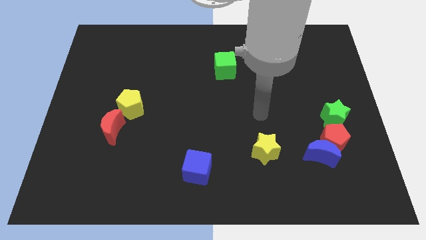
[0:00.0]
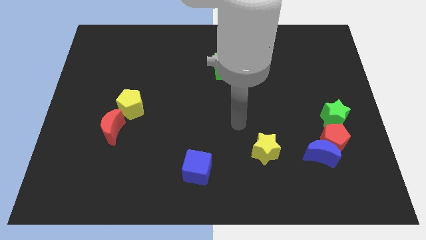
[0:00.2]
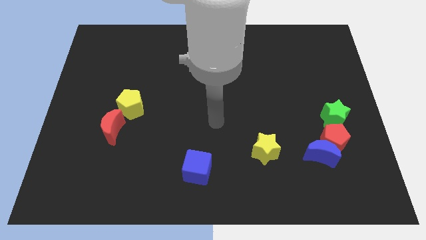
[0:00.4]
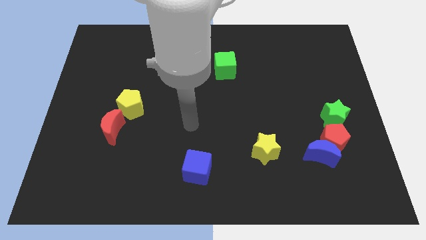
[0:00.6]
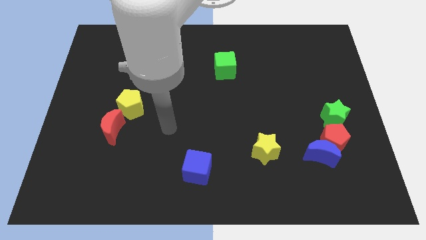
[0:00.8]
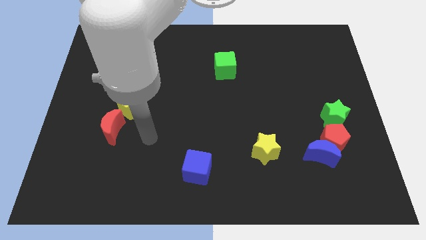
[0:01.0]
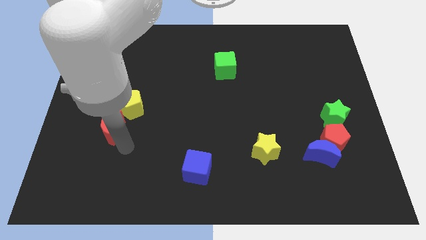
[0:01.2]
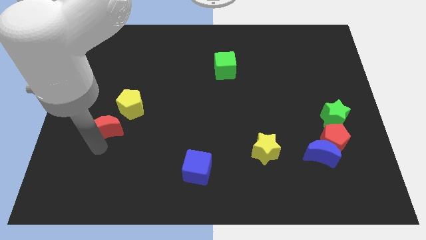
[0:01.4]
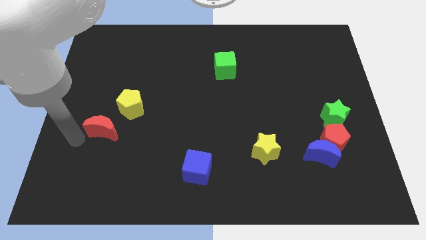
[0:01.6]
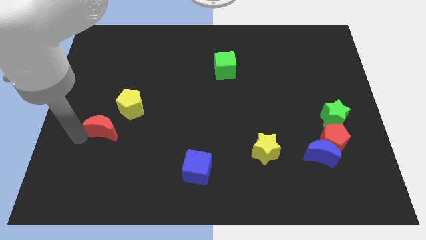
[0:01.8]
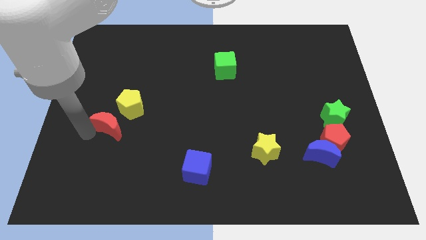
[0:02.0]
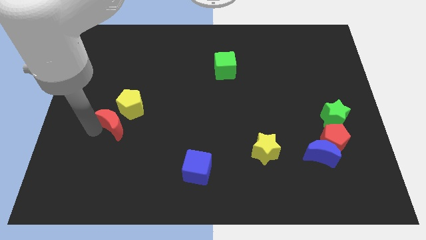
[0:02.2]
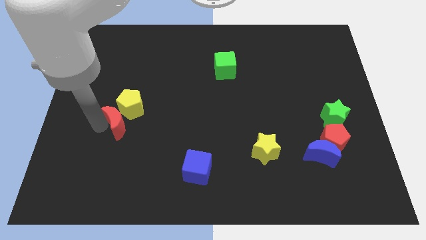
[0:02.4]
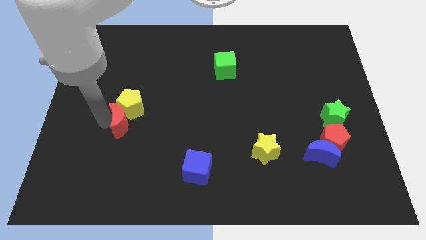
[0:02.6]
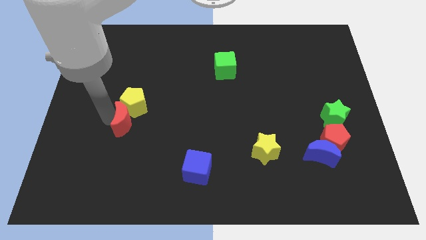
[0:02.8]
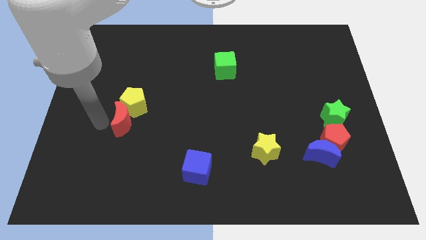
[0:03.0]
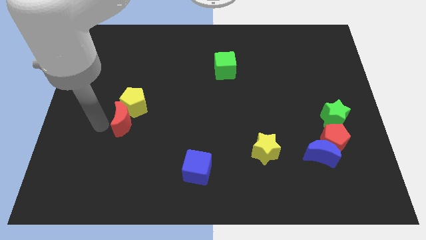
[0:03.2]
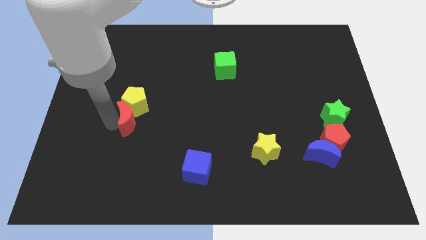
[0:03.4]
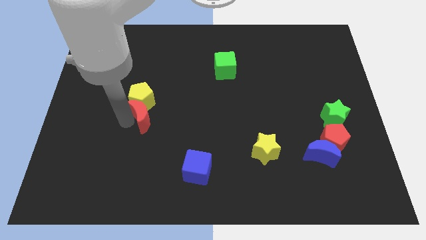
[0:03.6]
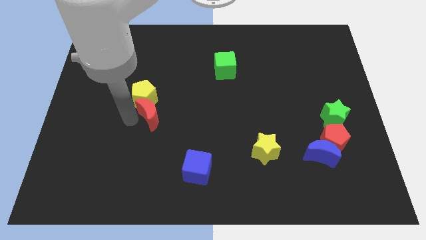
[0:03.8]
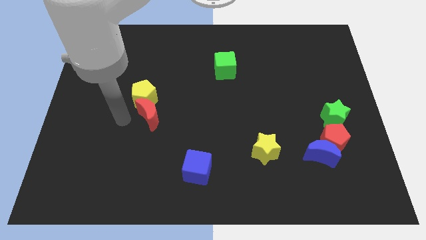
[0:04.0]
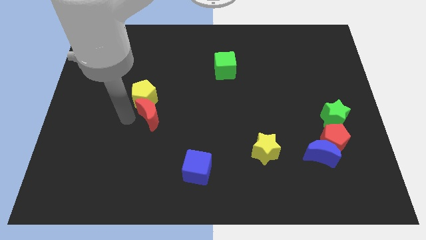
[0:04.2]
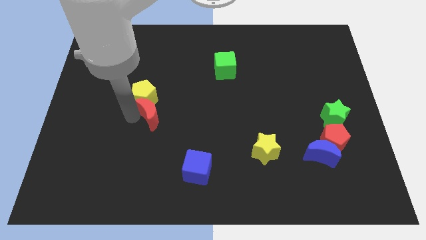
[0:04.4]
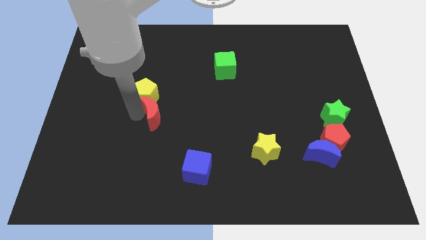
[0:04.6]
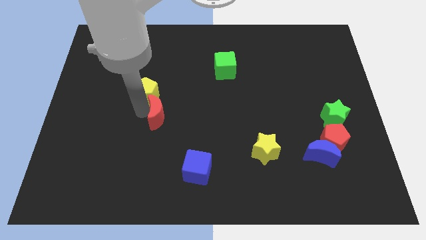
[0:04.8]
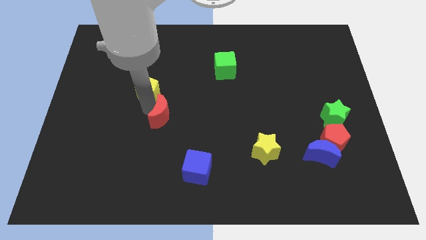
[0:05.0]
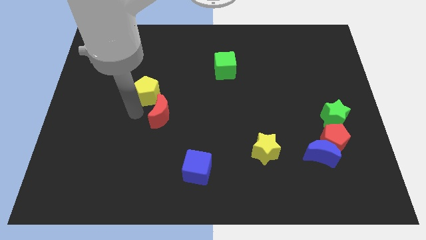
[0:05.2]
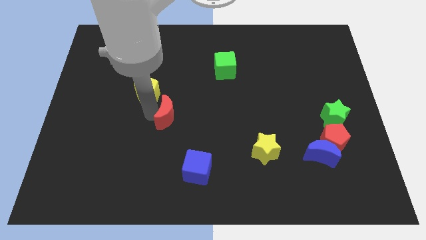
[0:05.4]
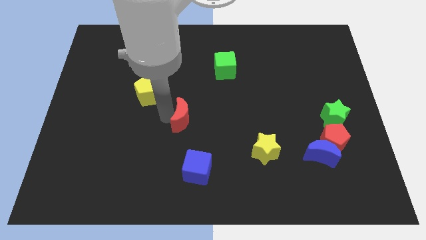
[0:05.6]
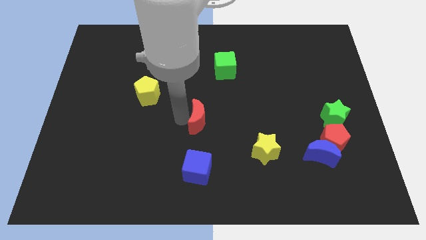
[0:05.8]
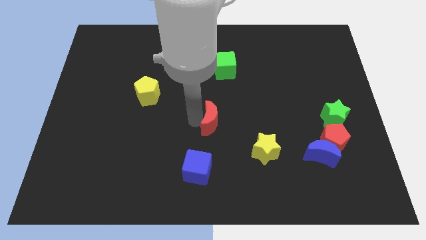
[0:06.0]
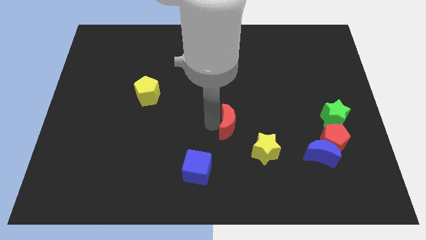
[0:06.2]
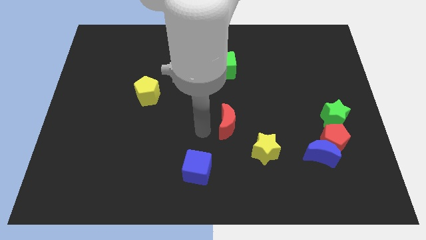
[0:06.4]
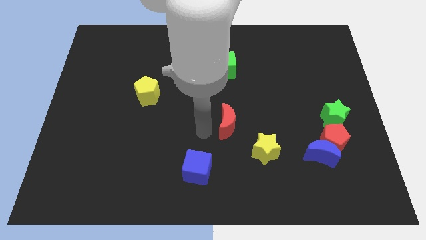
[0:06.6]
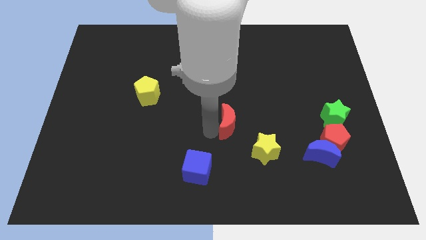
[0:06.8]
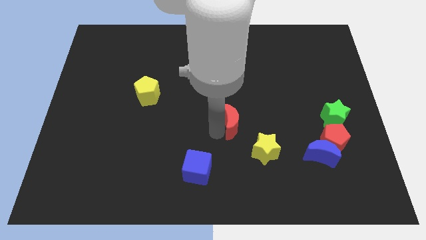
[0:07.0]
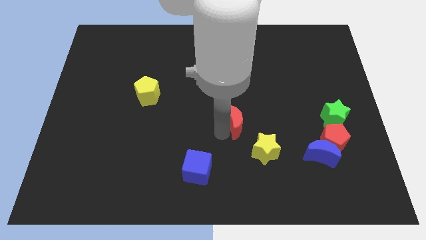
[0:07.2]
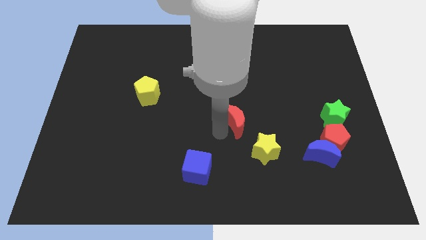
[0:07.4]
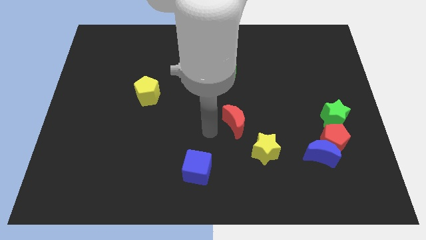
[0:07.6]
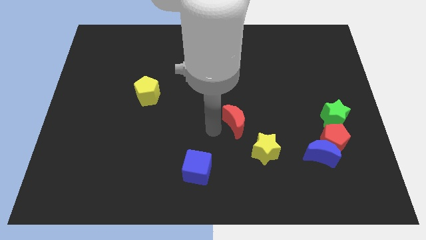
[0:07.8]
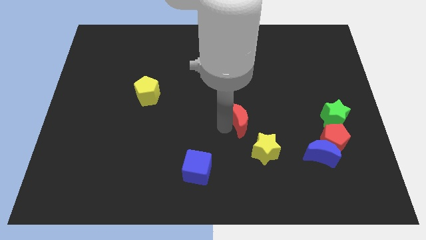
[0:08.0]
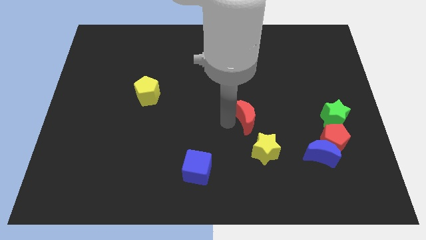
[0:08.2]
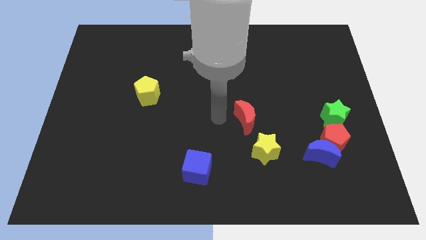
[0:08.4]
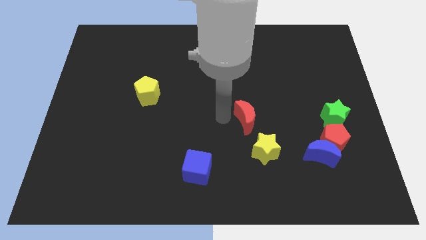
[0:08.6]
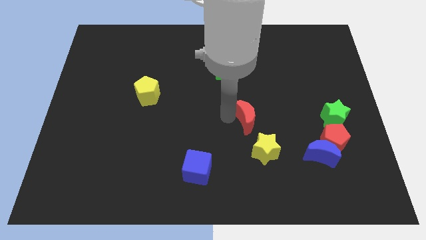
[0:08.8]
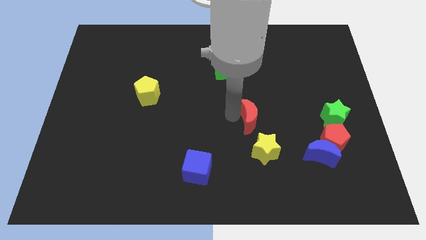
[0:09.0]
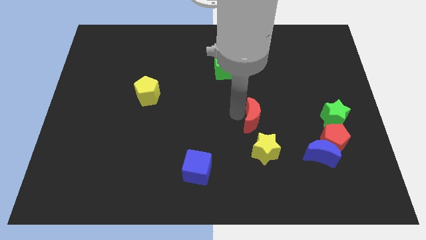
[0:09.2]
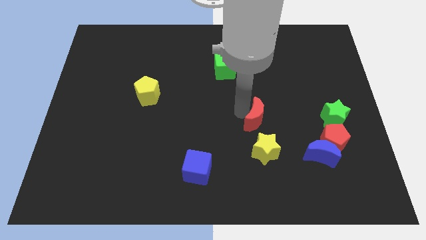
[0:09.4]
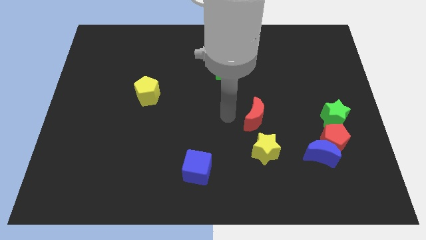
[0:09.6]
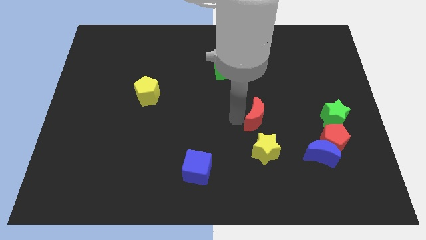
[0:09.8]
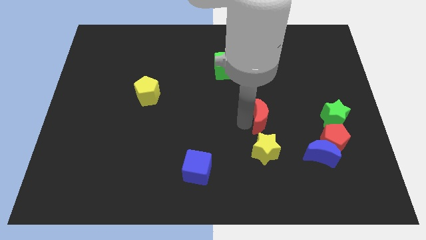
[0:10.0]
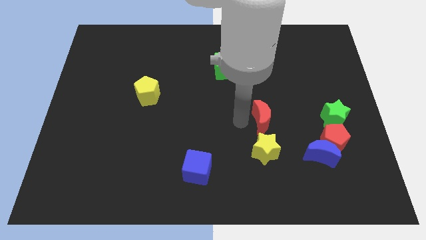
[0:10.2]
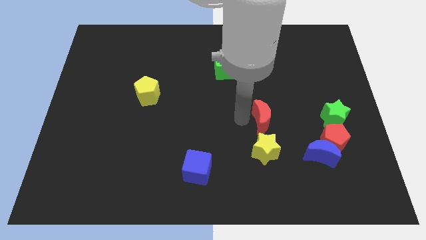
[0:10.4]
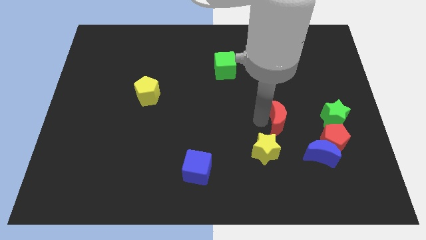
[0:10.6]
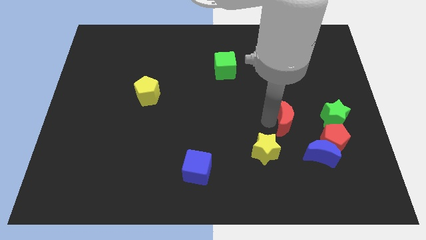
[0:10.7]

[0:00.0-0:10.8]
push the red moon to the top left of the red pentagon

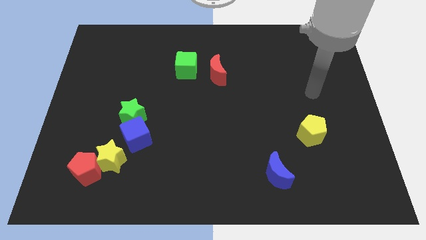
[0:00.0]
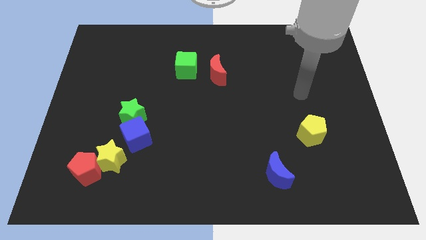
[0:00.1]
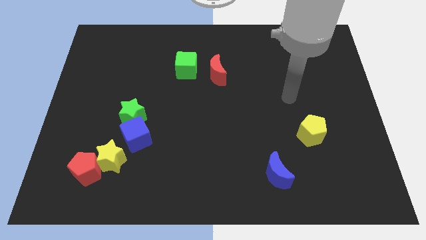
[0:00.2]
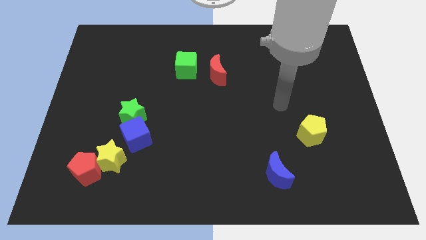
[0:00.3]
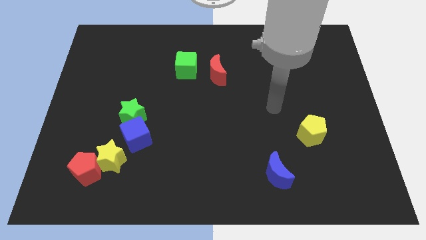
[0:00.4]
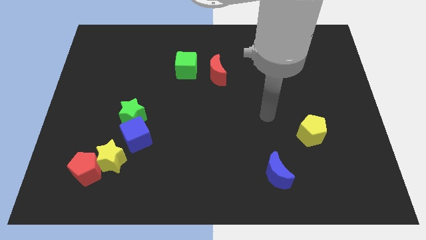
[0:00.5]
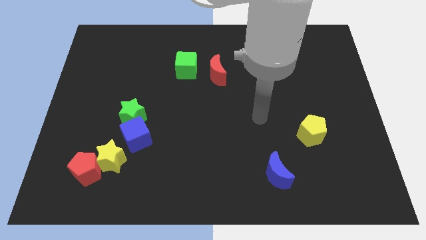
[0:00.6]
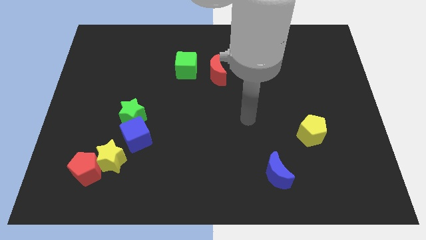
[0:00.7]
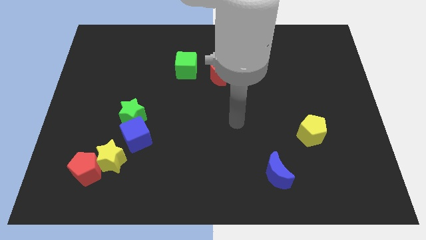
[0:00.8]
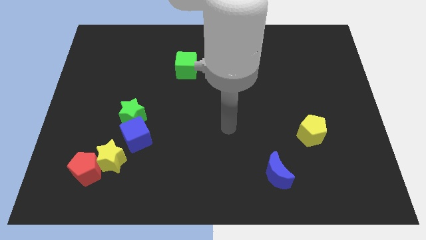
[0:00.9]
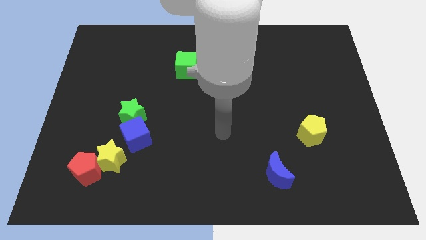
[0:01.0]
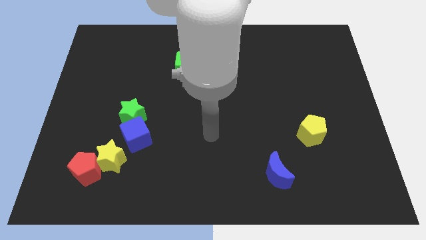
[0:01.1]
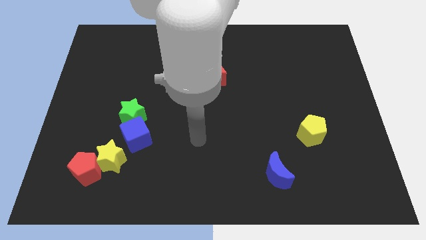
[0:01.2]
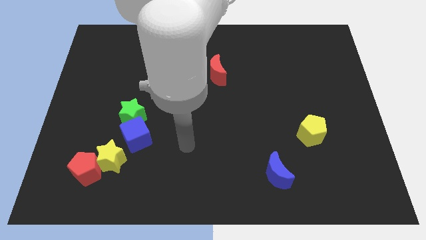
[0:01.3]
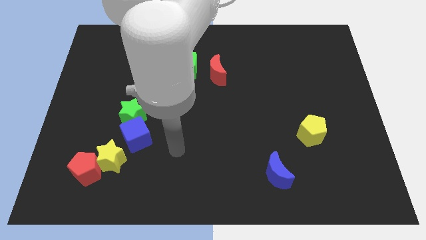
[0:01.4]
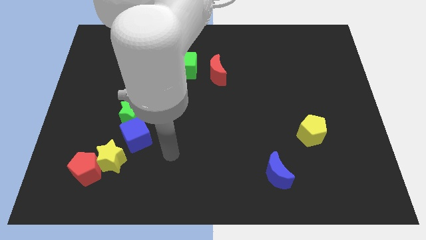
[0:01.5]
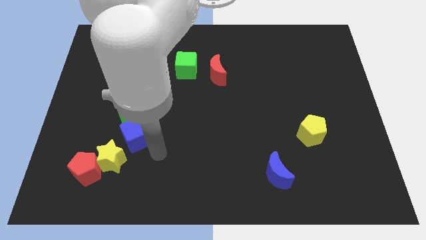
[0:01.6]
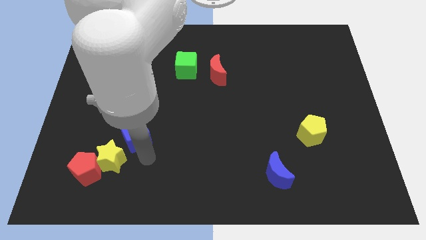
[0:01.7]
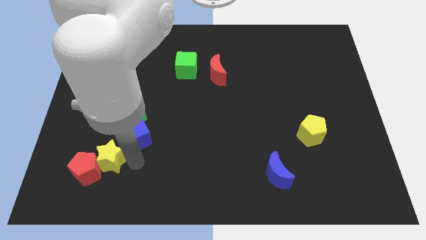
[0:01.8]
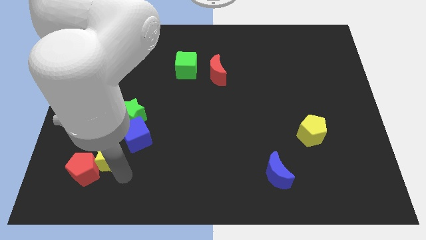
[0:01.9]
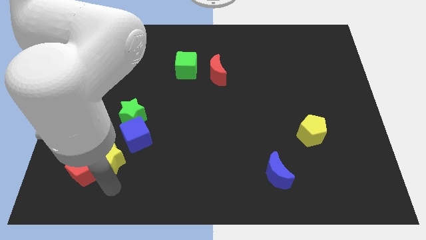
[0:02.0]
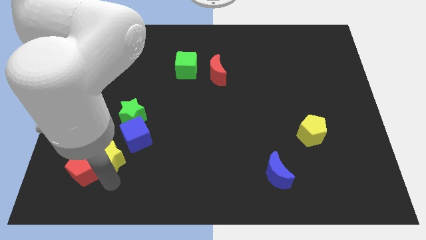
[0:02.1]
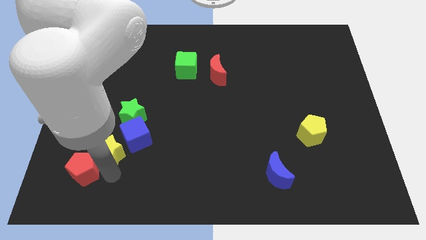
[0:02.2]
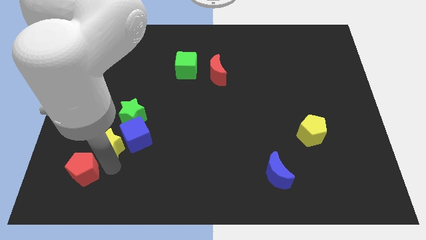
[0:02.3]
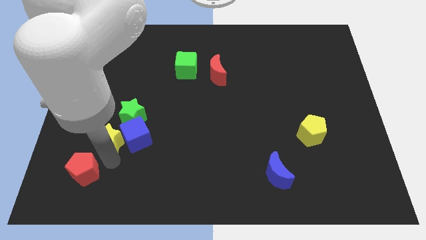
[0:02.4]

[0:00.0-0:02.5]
push the yellow star to the top left side of the blue cube
